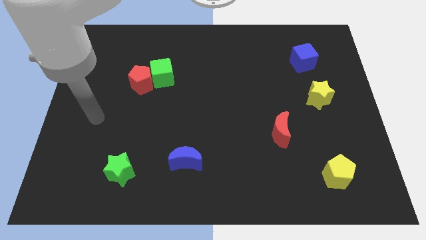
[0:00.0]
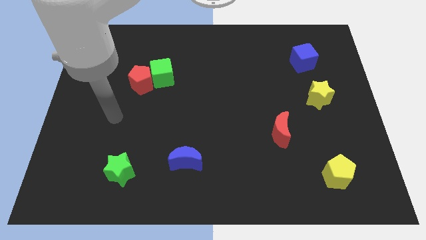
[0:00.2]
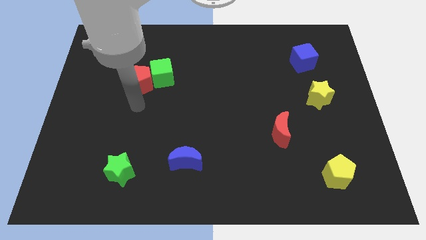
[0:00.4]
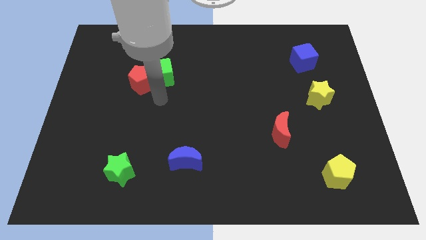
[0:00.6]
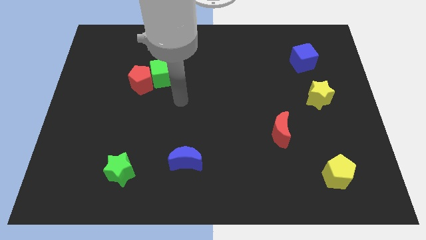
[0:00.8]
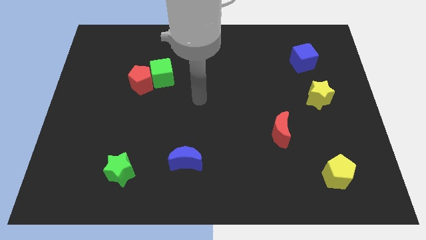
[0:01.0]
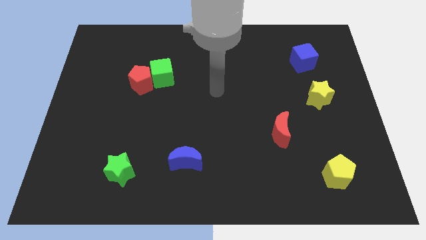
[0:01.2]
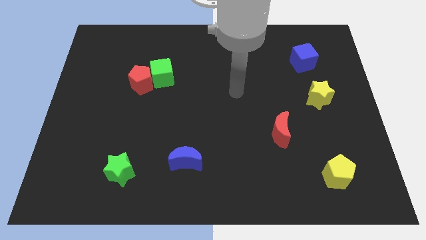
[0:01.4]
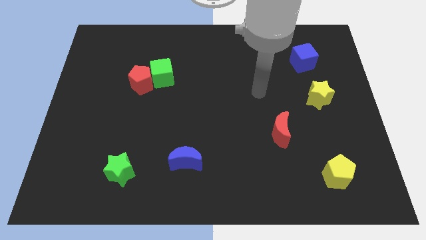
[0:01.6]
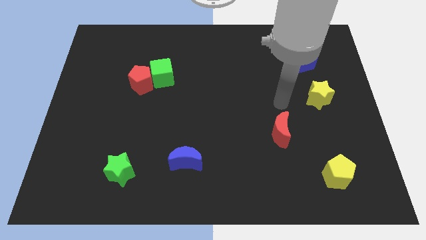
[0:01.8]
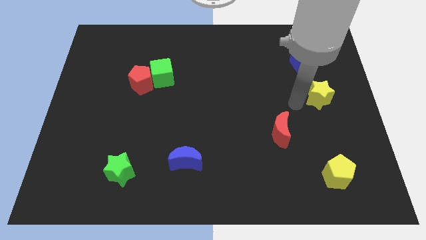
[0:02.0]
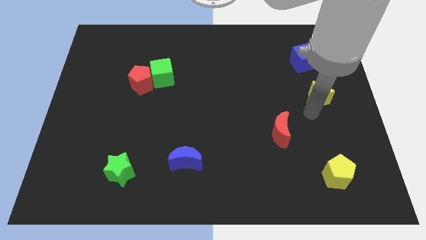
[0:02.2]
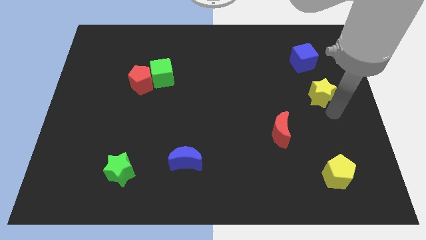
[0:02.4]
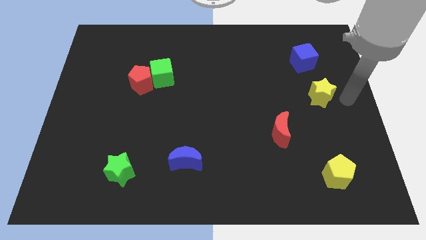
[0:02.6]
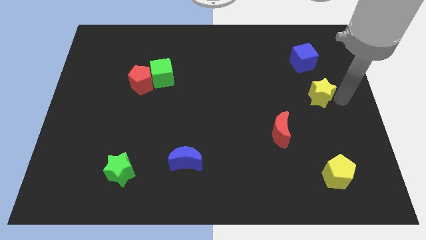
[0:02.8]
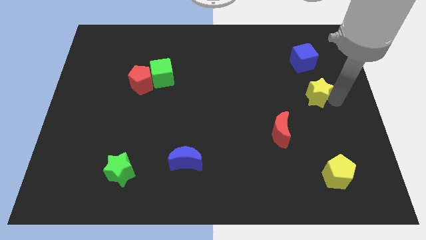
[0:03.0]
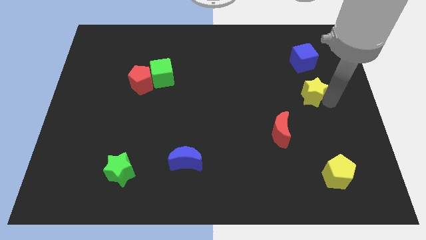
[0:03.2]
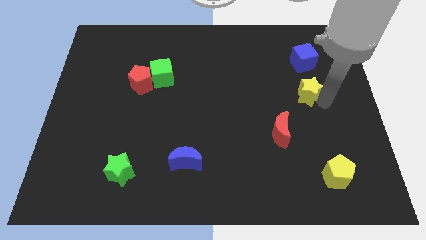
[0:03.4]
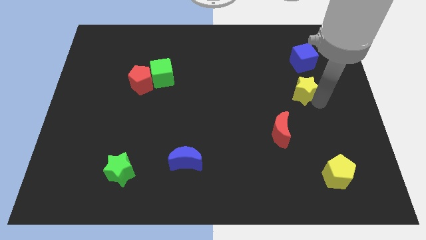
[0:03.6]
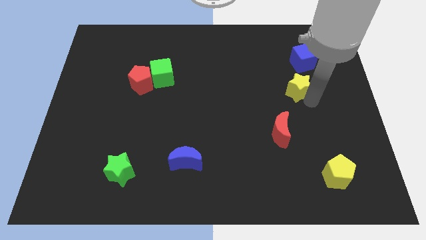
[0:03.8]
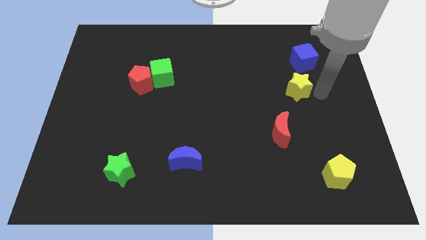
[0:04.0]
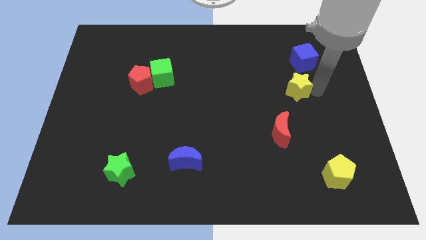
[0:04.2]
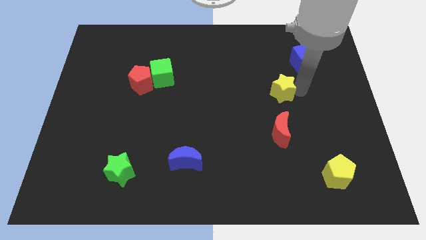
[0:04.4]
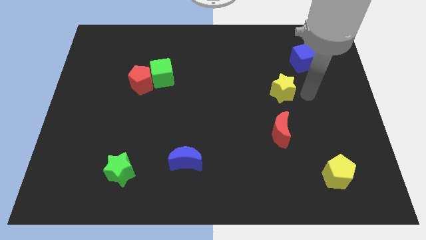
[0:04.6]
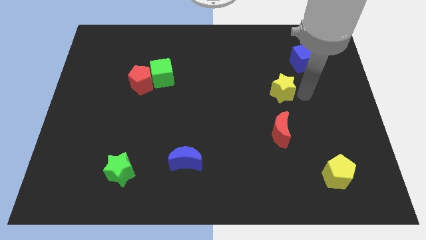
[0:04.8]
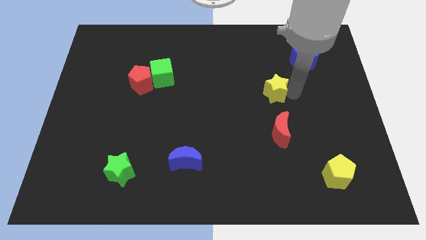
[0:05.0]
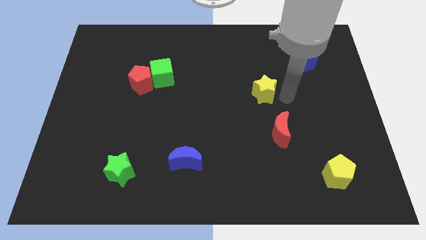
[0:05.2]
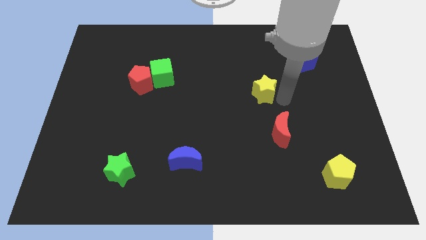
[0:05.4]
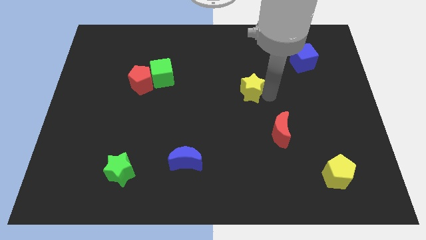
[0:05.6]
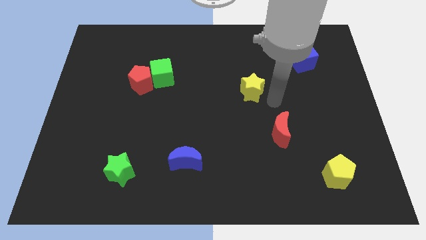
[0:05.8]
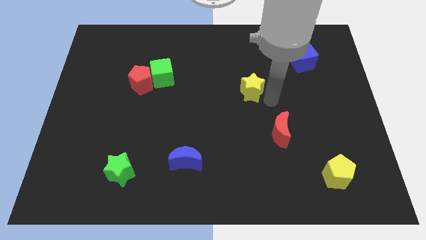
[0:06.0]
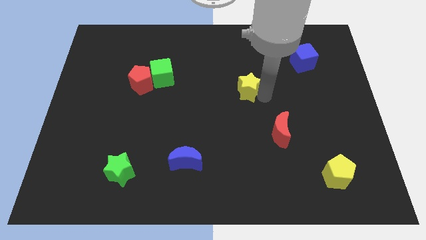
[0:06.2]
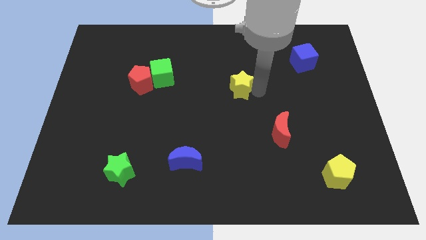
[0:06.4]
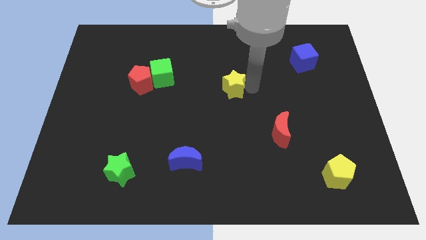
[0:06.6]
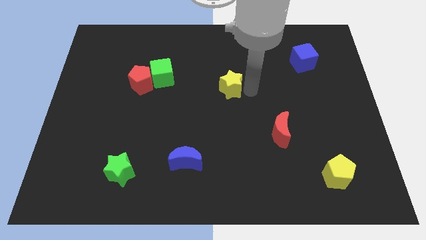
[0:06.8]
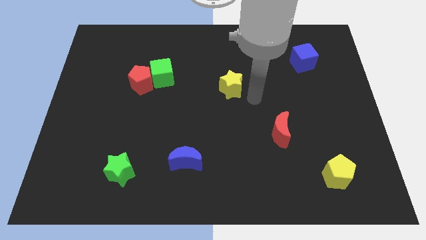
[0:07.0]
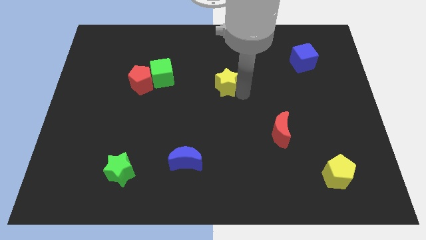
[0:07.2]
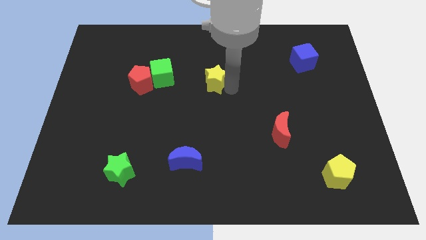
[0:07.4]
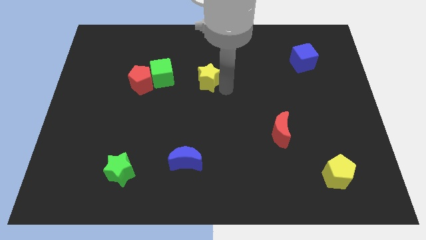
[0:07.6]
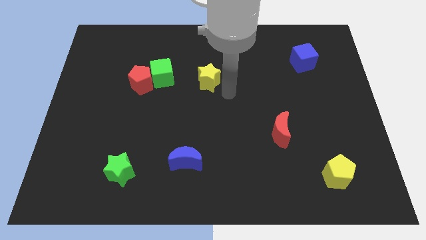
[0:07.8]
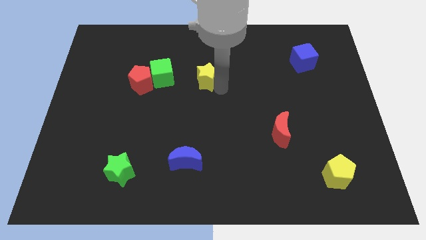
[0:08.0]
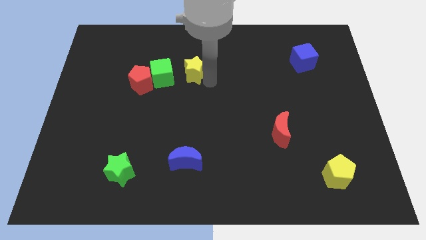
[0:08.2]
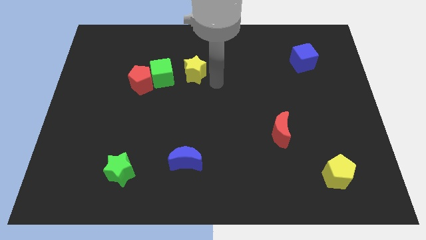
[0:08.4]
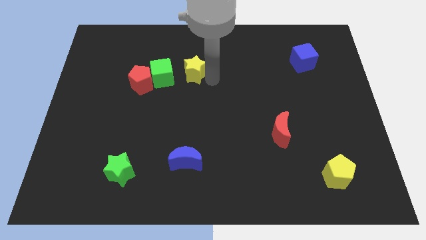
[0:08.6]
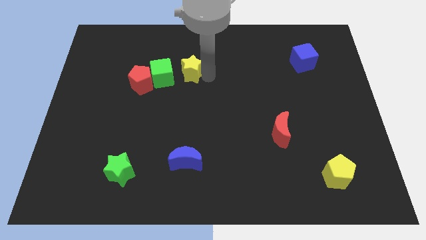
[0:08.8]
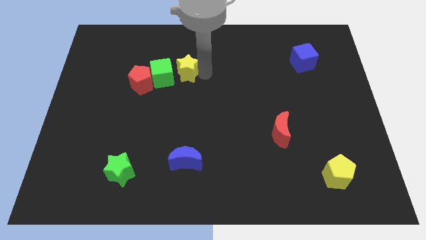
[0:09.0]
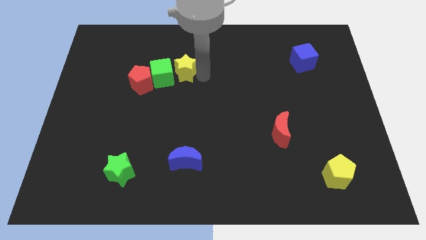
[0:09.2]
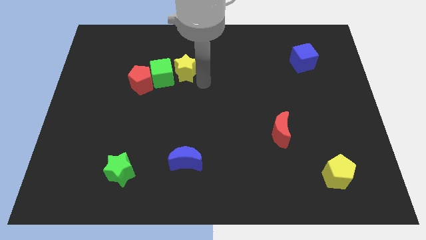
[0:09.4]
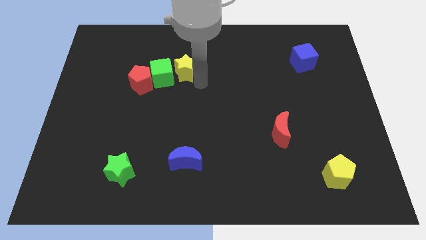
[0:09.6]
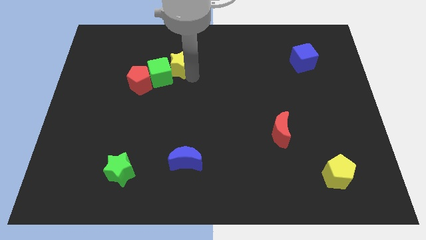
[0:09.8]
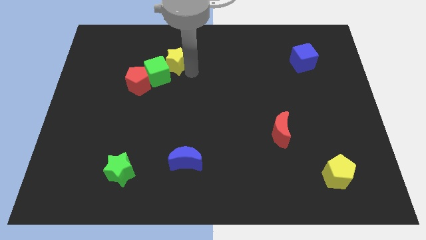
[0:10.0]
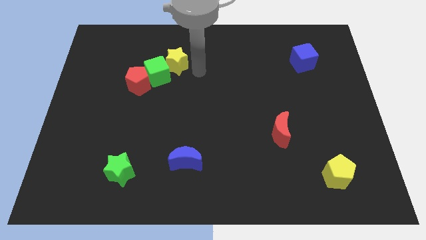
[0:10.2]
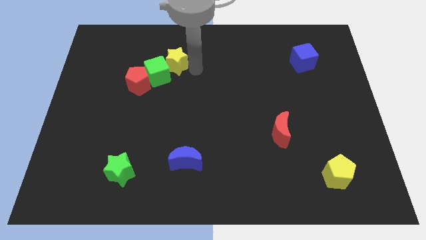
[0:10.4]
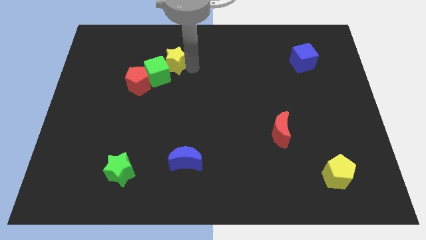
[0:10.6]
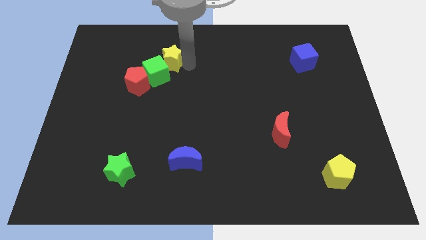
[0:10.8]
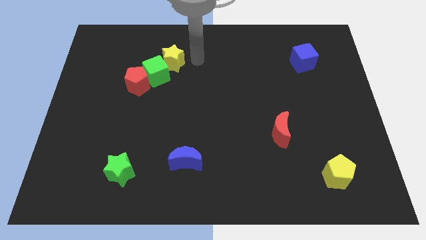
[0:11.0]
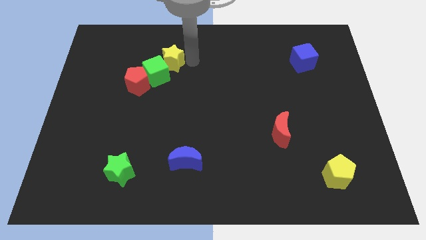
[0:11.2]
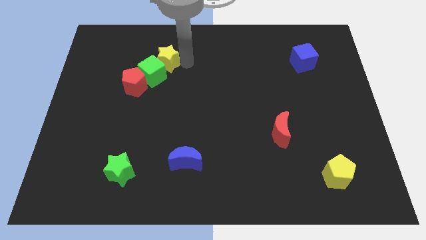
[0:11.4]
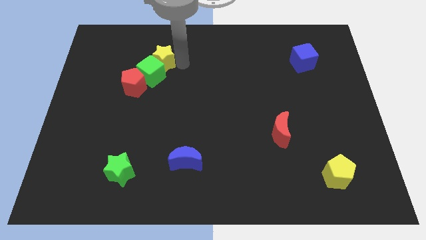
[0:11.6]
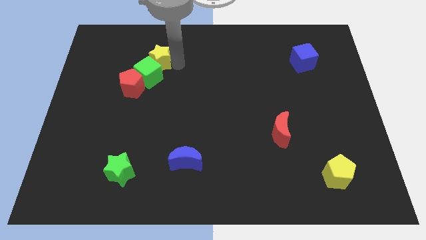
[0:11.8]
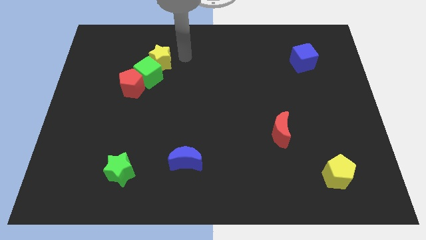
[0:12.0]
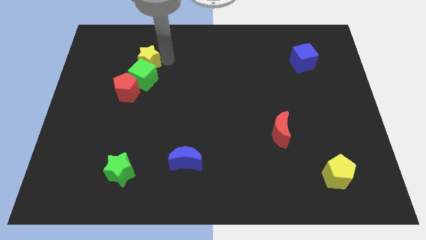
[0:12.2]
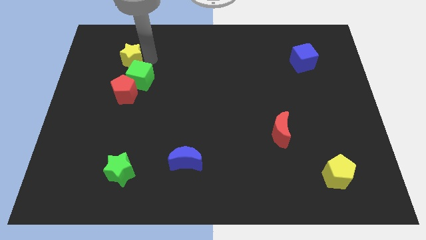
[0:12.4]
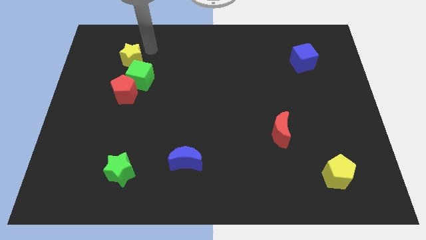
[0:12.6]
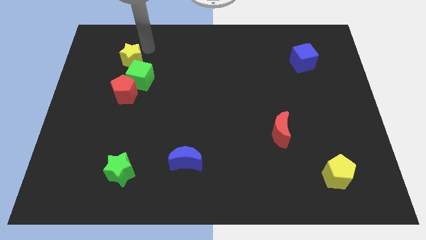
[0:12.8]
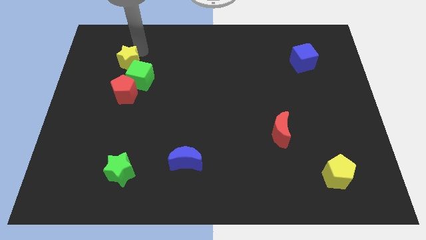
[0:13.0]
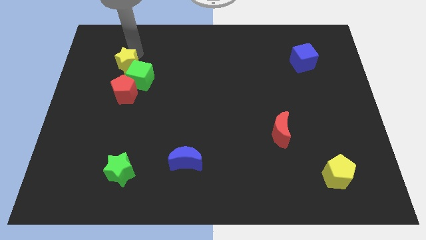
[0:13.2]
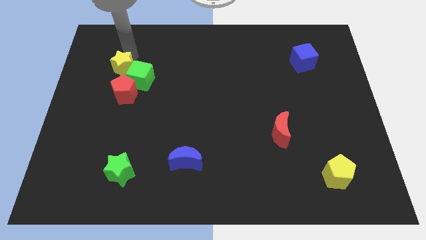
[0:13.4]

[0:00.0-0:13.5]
push the yellow star to the top left side of the red pentagon

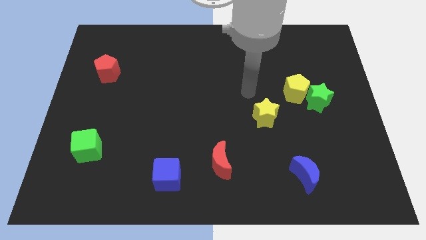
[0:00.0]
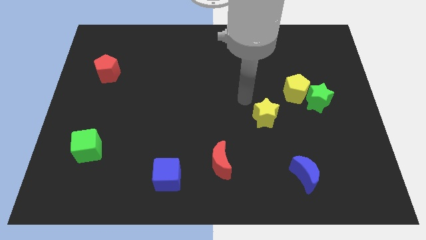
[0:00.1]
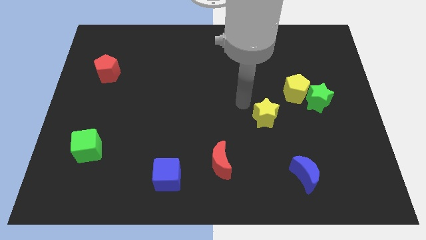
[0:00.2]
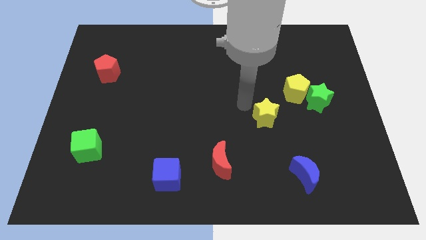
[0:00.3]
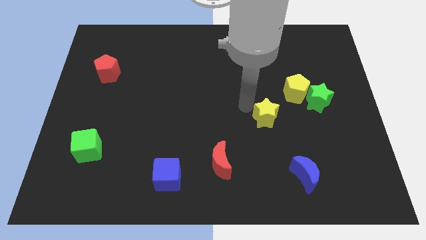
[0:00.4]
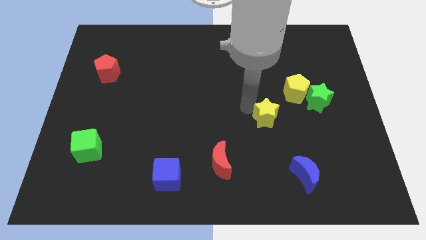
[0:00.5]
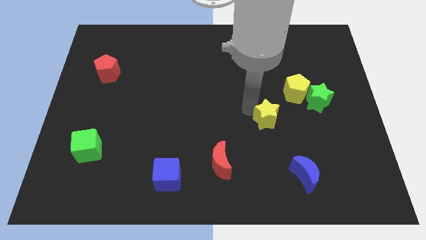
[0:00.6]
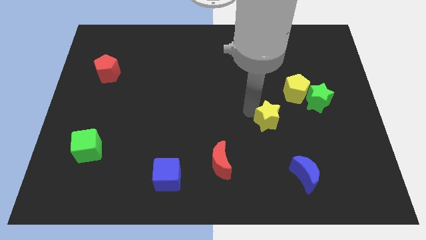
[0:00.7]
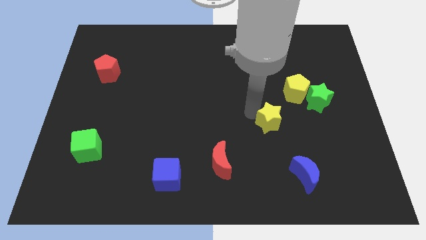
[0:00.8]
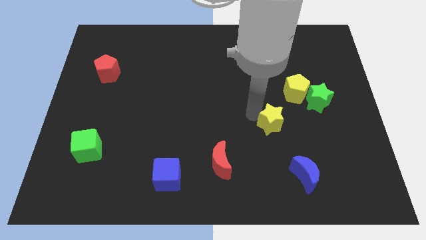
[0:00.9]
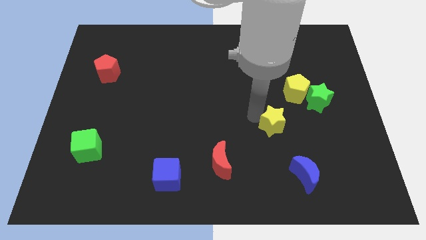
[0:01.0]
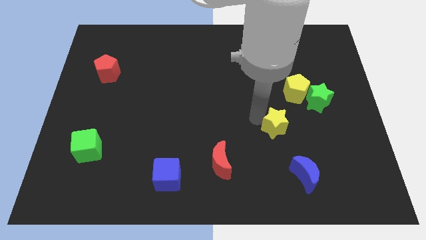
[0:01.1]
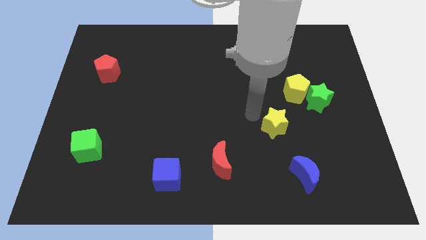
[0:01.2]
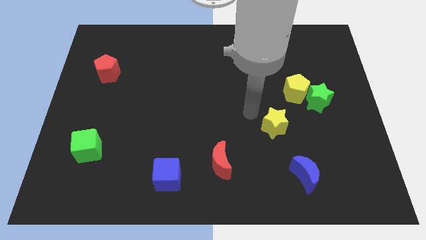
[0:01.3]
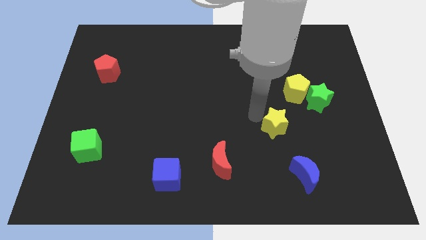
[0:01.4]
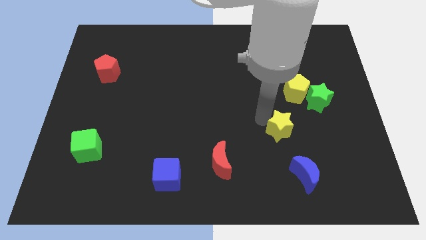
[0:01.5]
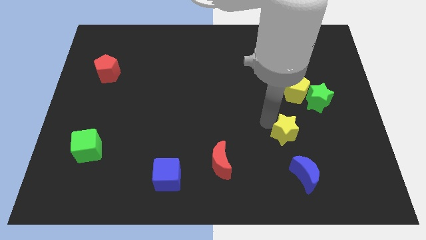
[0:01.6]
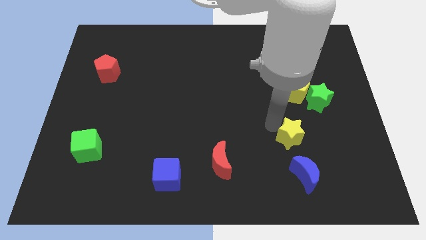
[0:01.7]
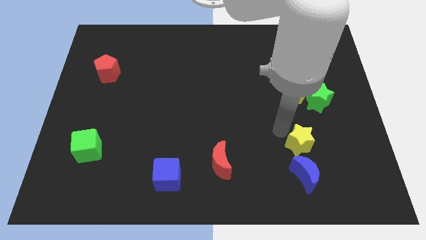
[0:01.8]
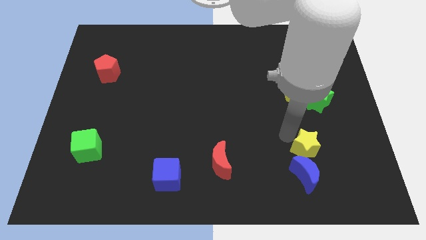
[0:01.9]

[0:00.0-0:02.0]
move the yellow star to the top right of the blue moon
